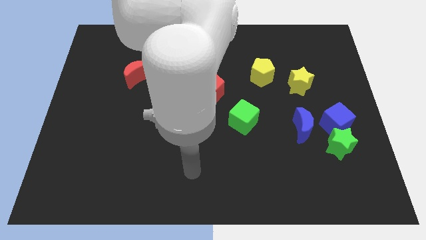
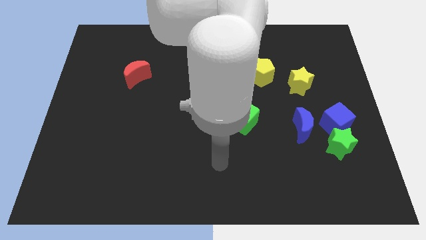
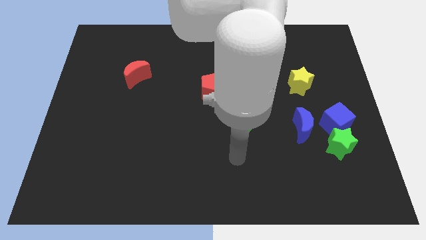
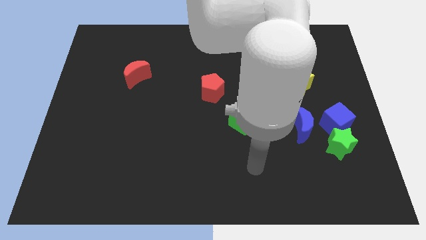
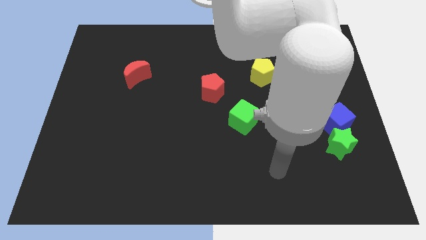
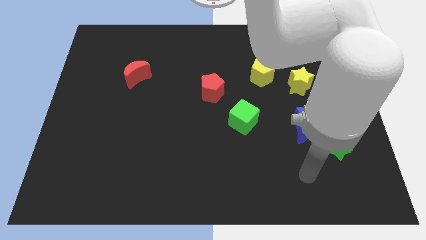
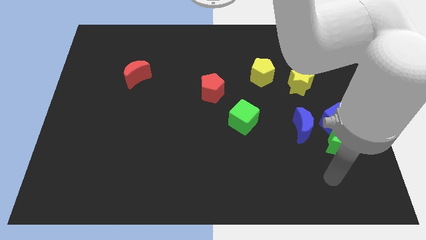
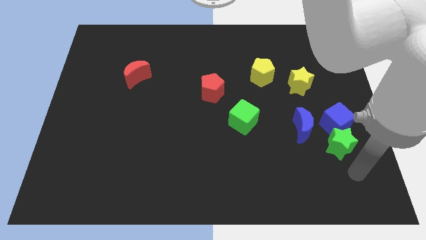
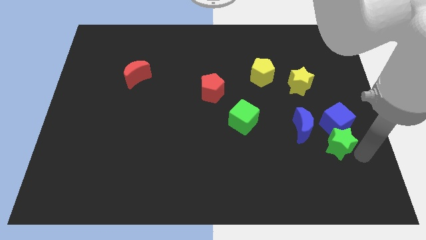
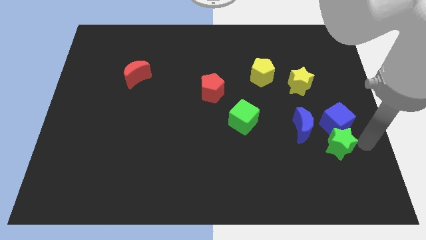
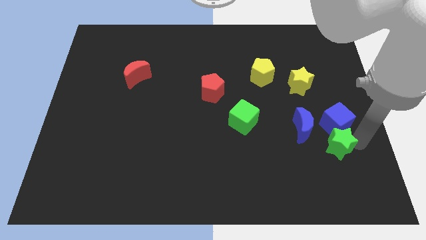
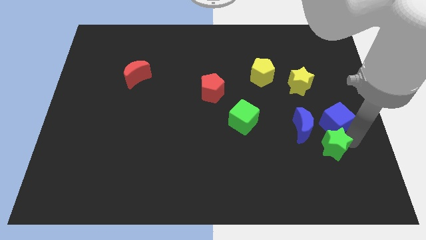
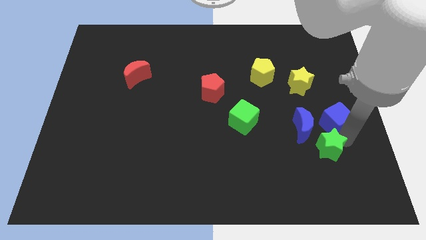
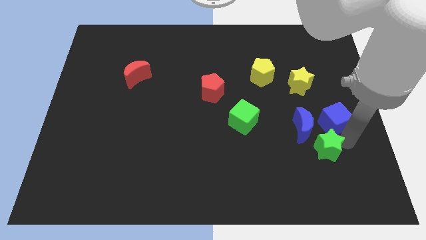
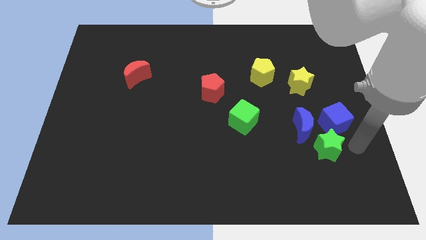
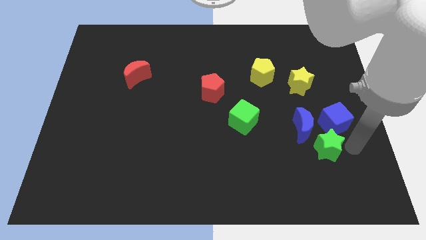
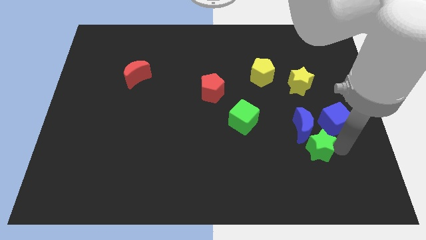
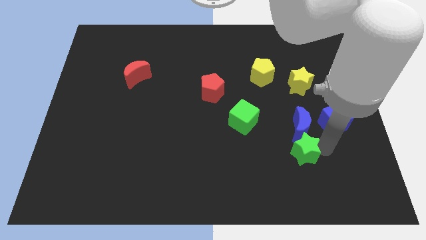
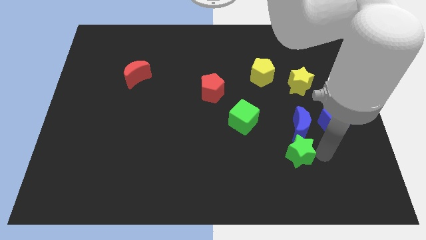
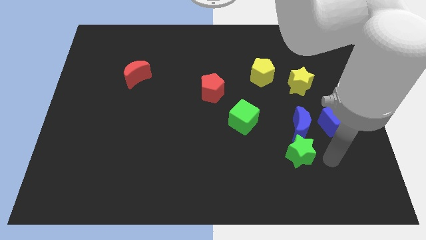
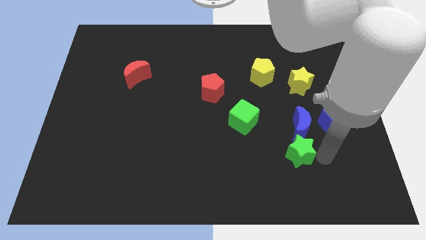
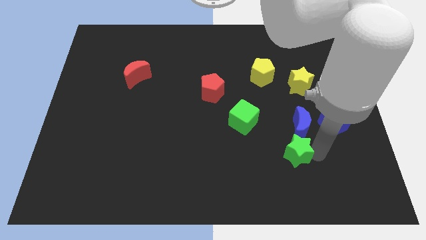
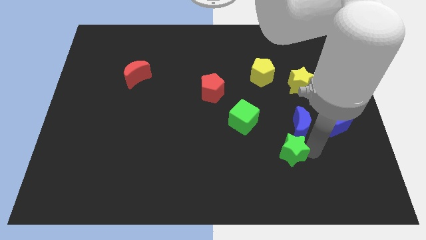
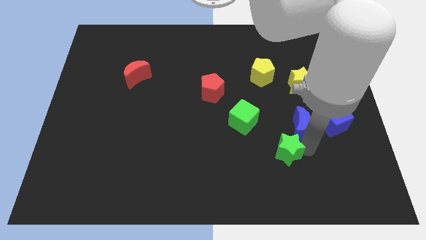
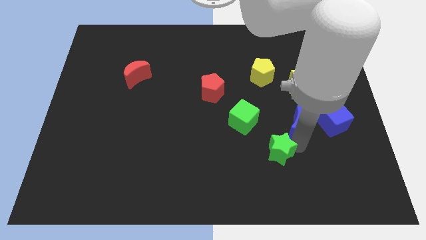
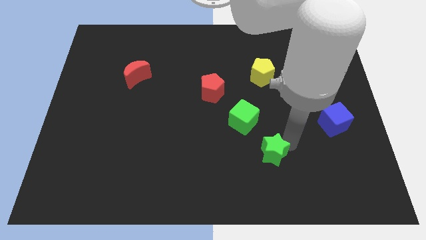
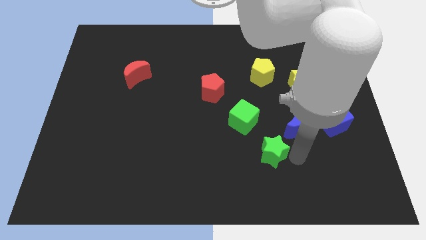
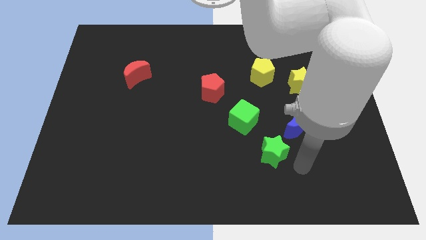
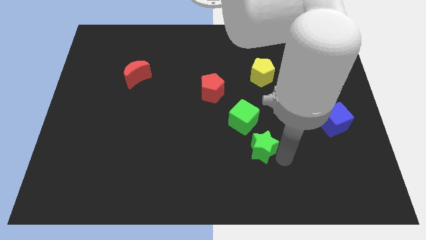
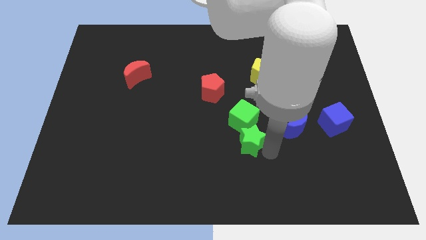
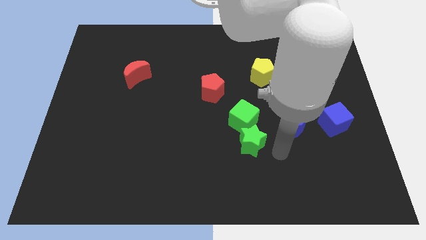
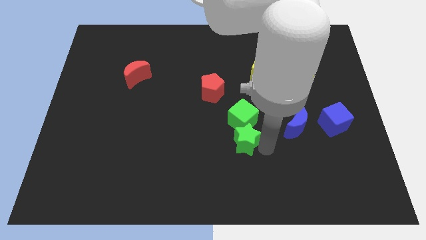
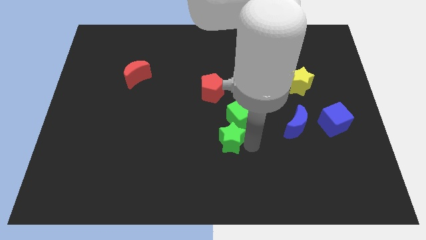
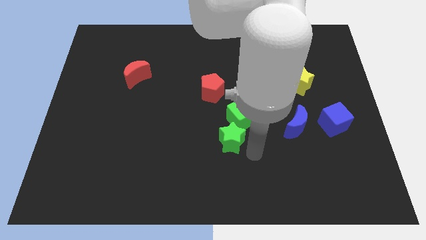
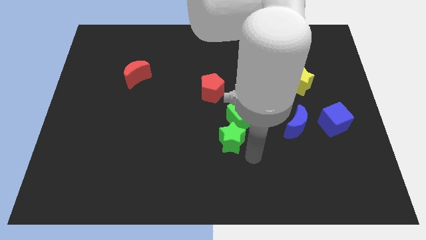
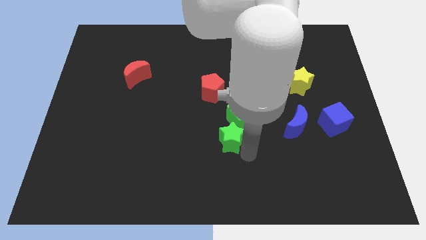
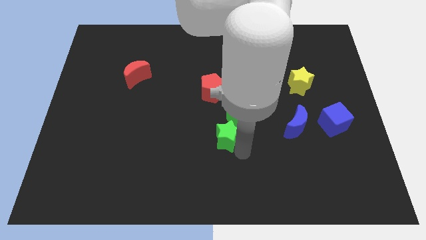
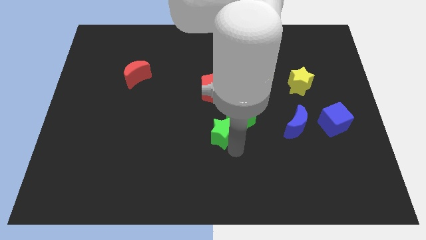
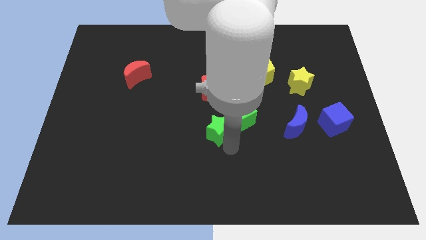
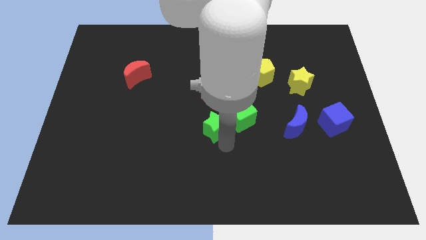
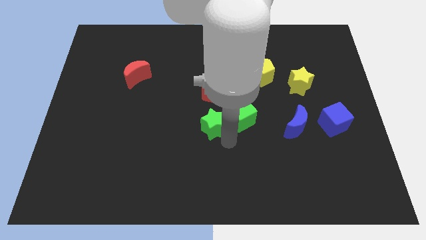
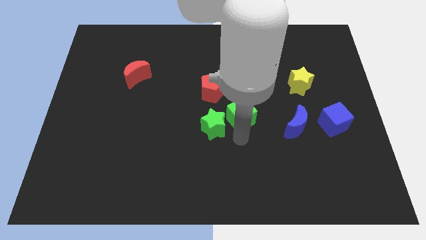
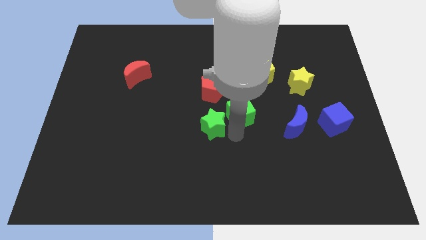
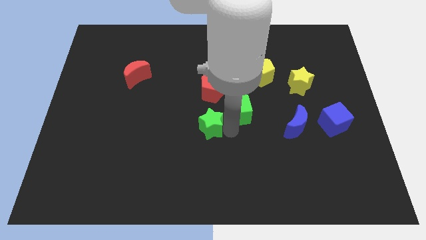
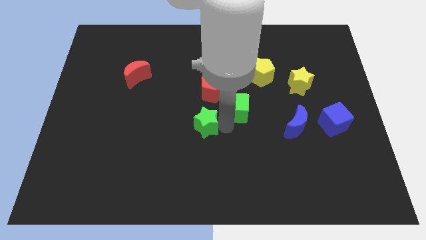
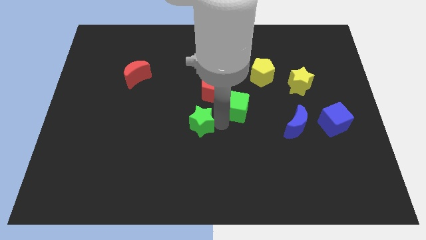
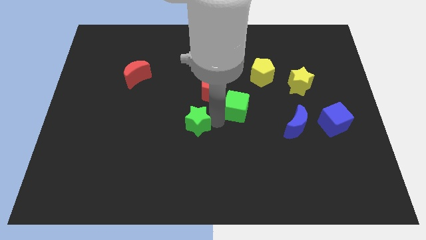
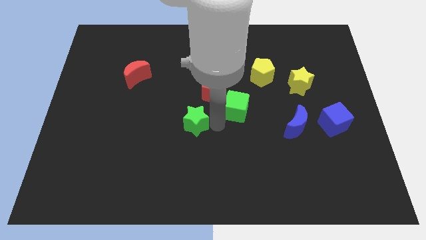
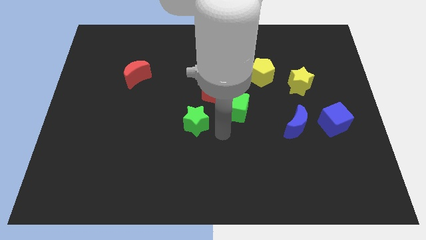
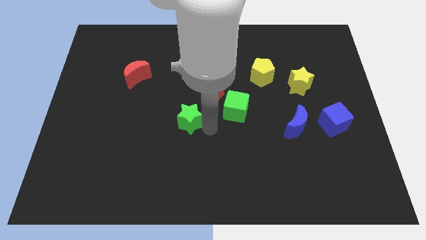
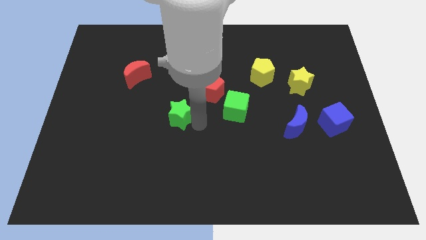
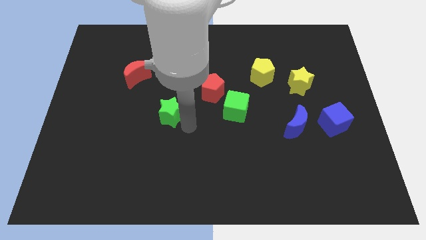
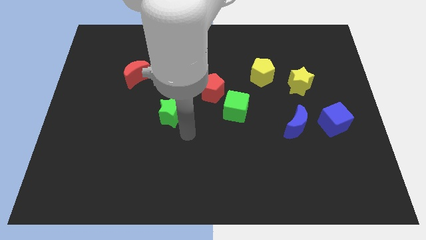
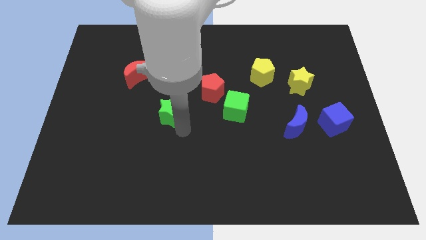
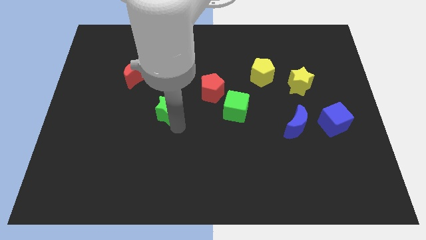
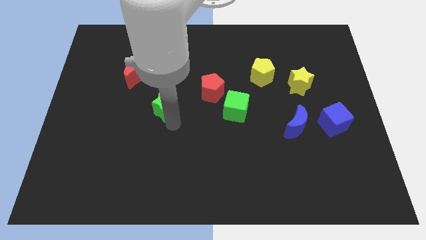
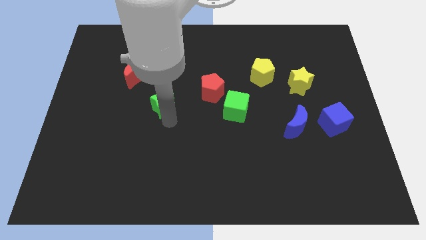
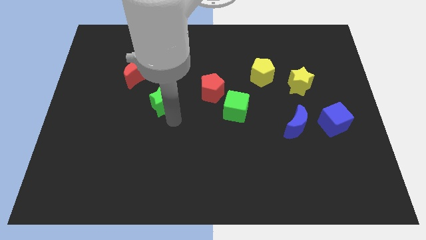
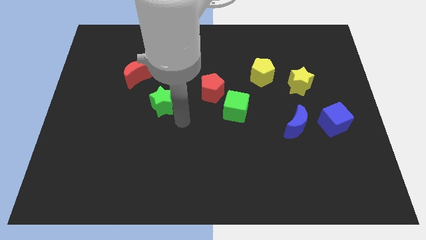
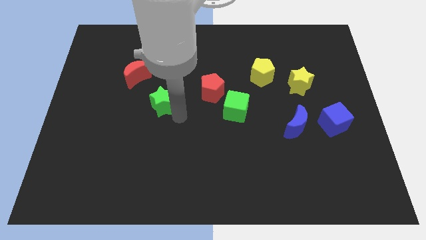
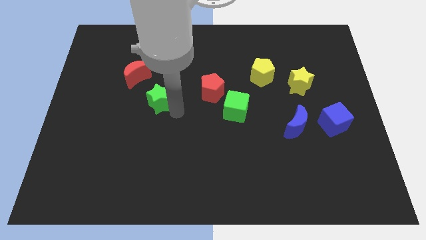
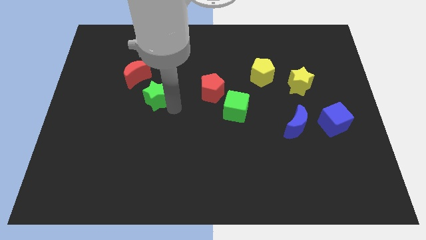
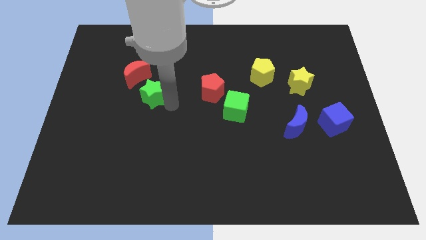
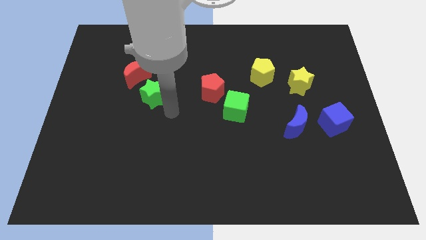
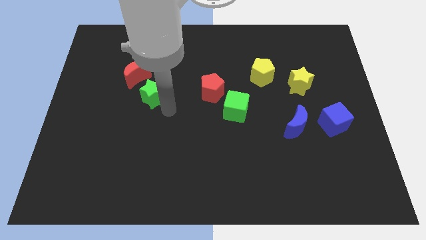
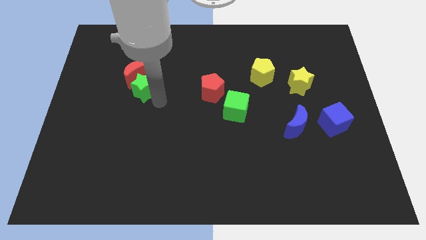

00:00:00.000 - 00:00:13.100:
put the green star to the red moon
